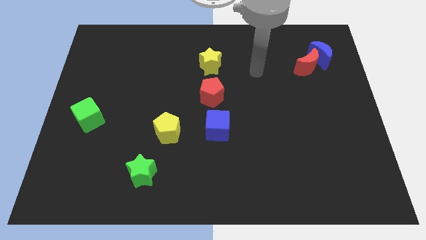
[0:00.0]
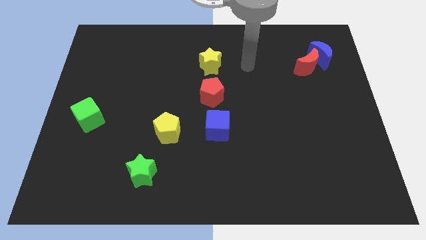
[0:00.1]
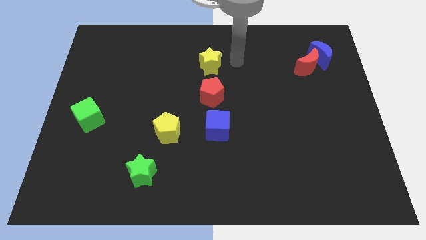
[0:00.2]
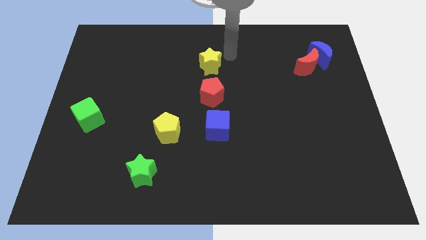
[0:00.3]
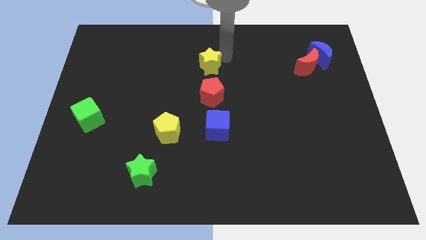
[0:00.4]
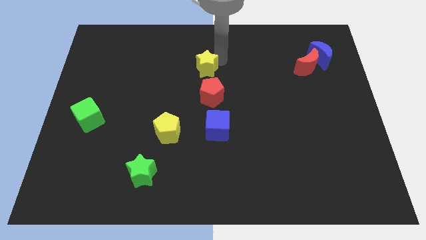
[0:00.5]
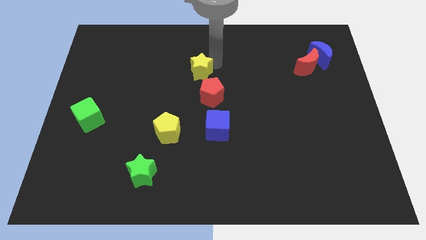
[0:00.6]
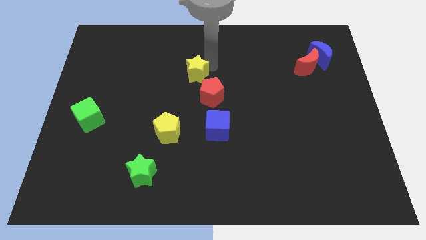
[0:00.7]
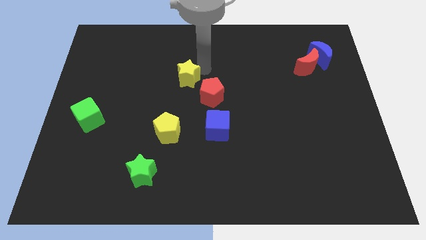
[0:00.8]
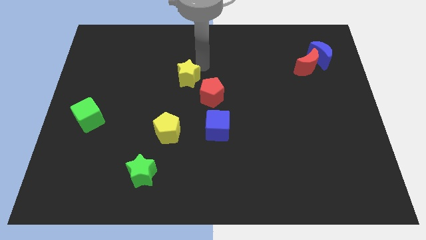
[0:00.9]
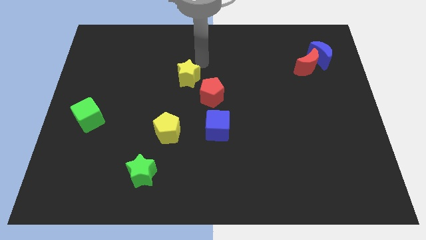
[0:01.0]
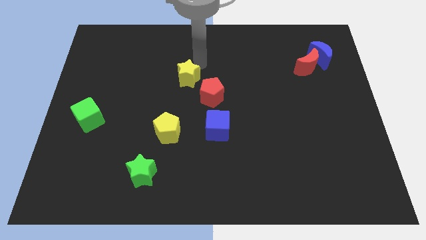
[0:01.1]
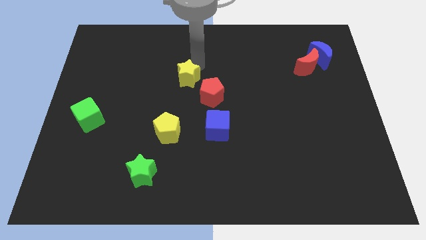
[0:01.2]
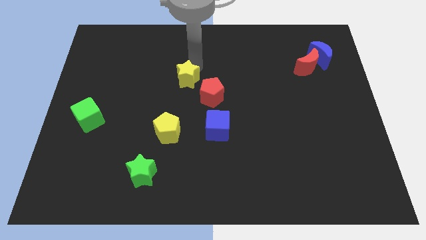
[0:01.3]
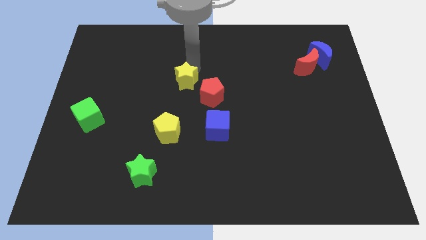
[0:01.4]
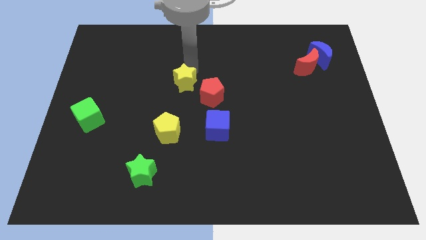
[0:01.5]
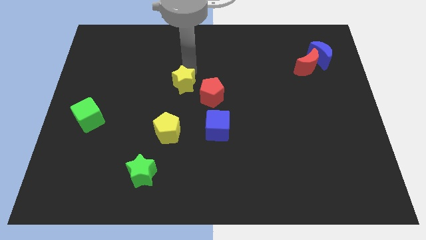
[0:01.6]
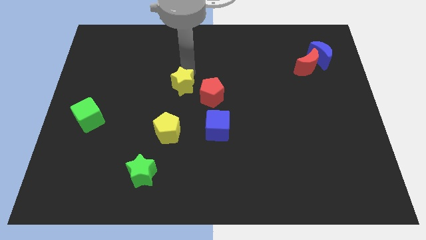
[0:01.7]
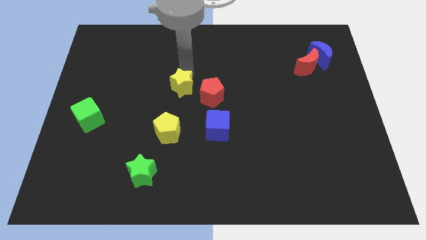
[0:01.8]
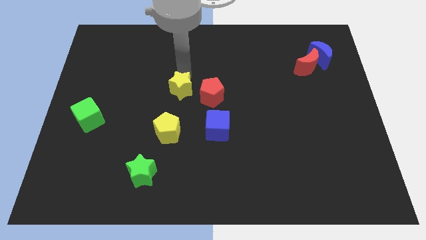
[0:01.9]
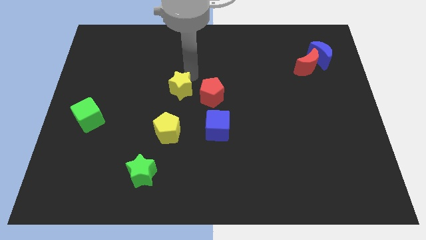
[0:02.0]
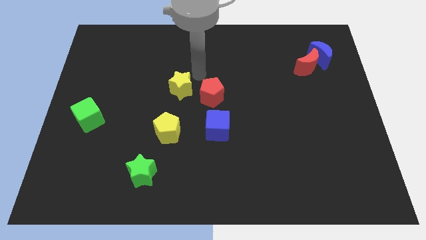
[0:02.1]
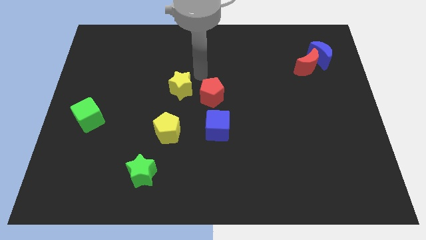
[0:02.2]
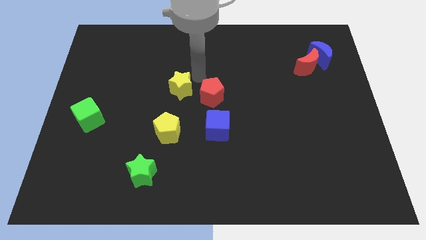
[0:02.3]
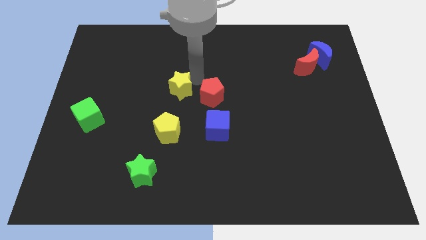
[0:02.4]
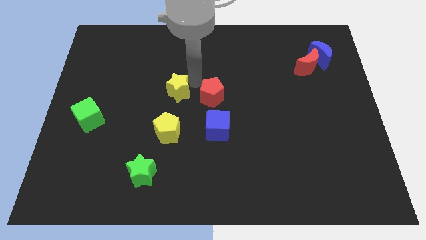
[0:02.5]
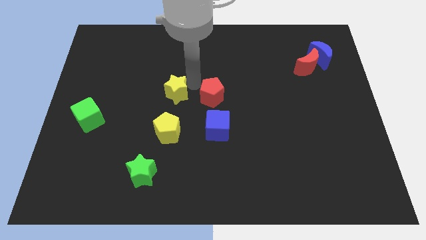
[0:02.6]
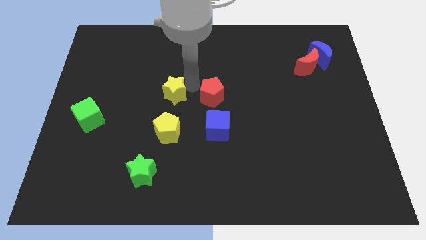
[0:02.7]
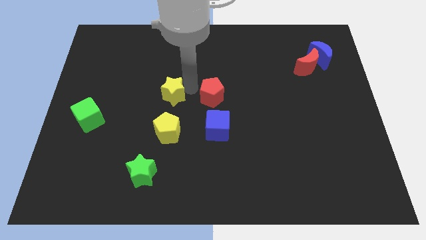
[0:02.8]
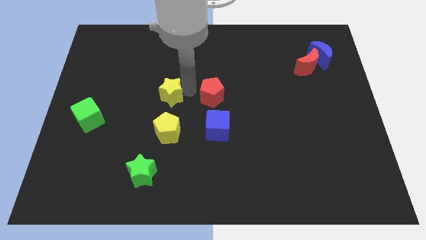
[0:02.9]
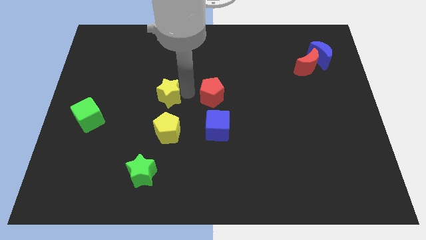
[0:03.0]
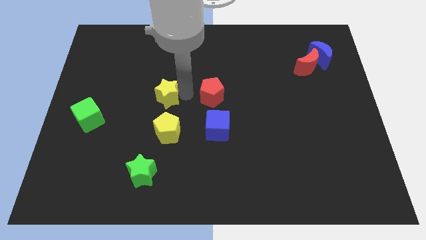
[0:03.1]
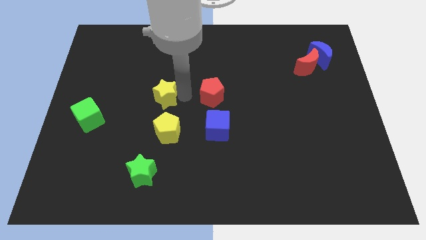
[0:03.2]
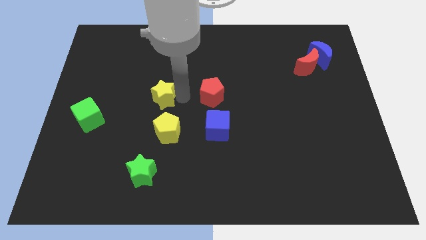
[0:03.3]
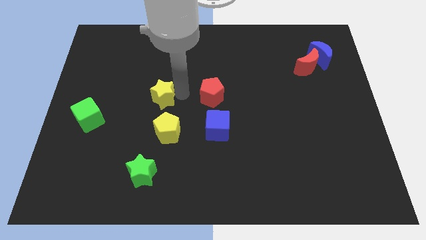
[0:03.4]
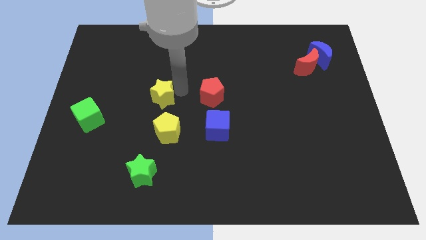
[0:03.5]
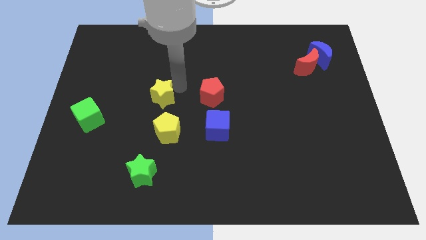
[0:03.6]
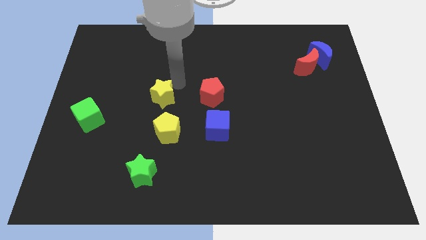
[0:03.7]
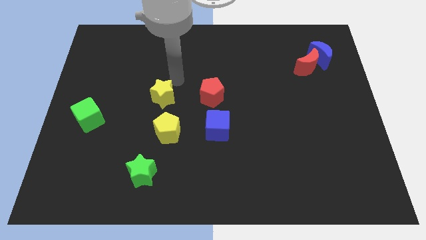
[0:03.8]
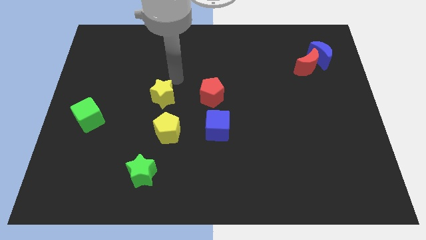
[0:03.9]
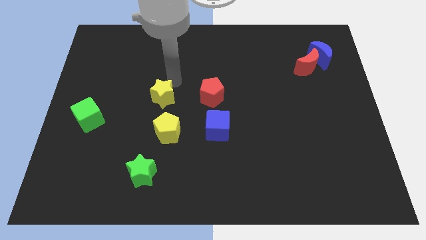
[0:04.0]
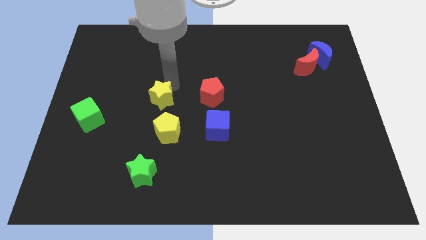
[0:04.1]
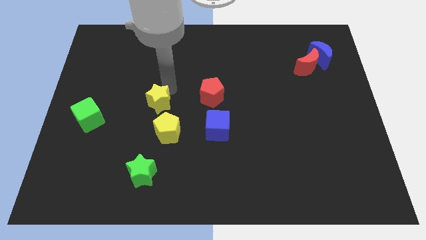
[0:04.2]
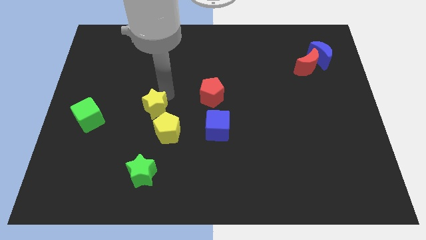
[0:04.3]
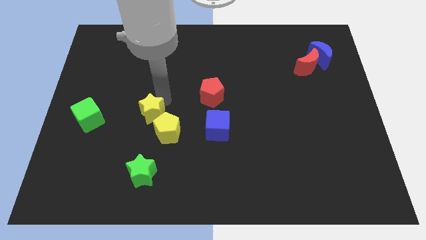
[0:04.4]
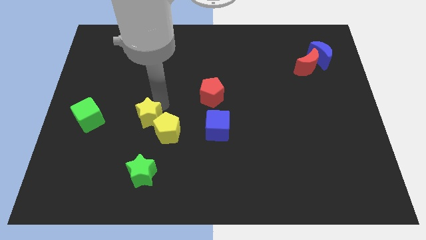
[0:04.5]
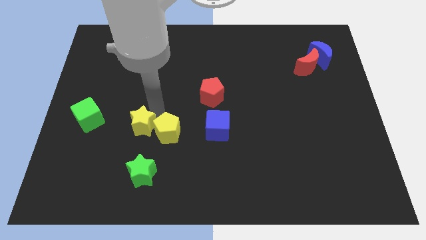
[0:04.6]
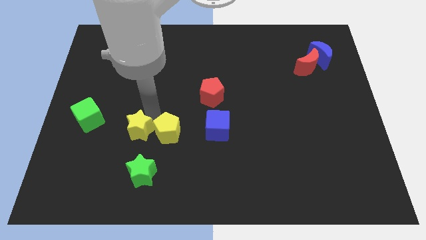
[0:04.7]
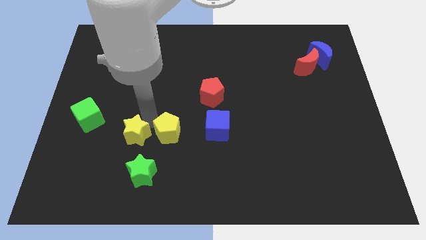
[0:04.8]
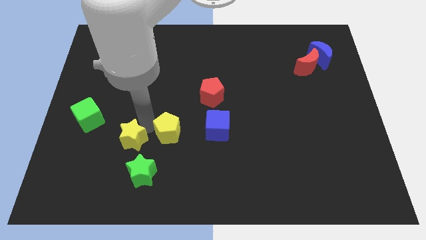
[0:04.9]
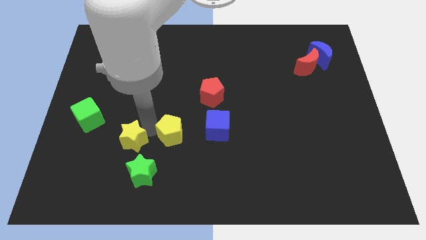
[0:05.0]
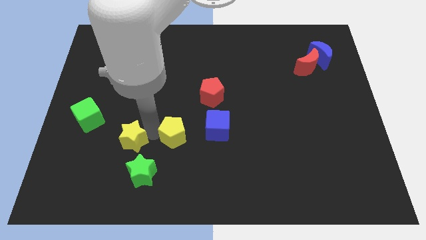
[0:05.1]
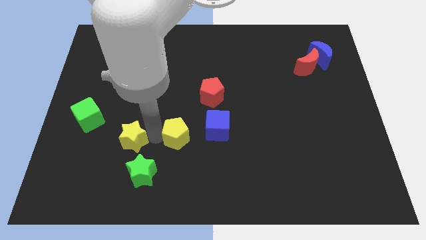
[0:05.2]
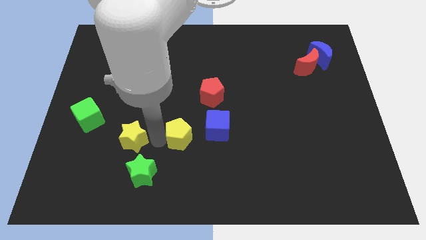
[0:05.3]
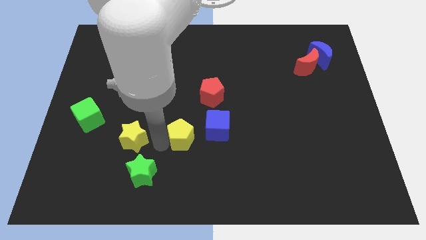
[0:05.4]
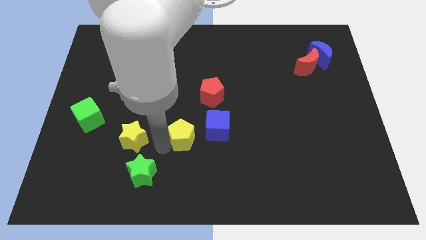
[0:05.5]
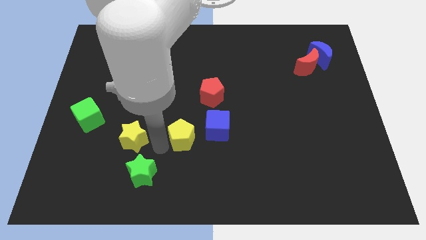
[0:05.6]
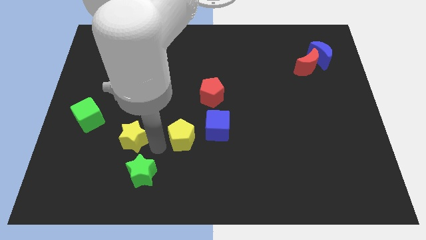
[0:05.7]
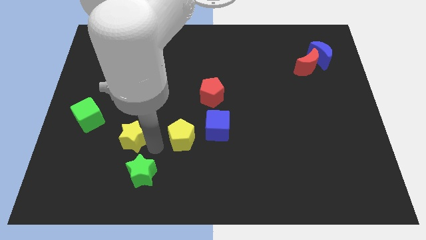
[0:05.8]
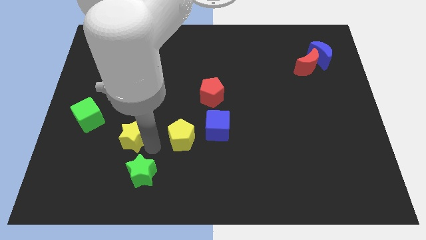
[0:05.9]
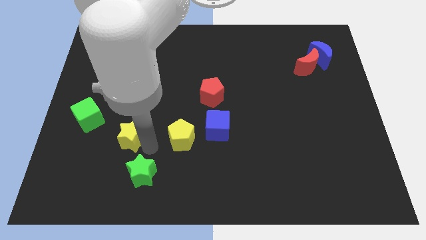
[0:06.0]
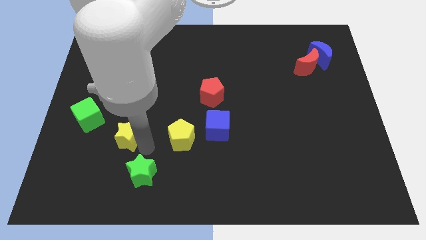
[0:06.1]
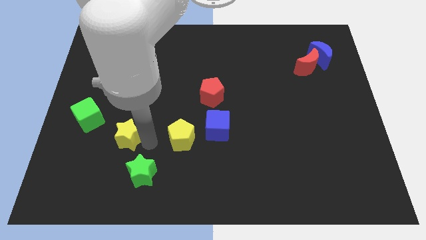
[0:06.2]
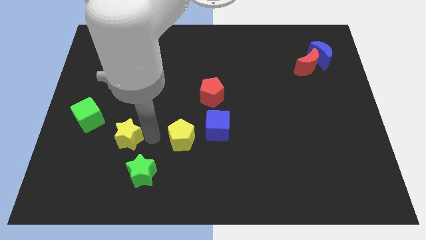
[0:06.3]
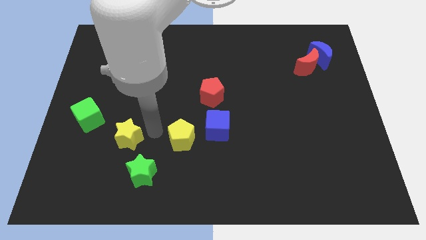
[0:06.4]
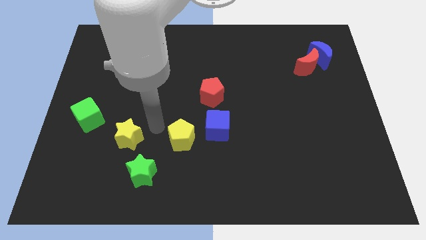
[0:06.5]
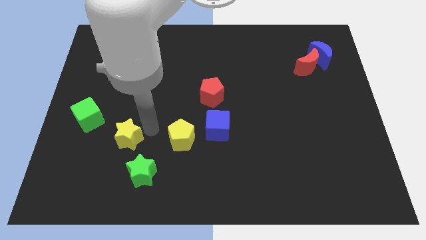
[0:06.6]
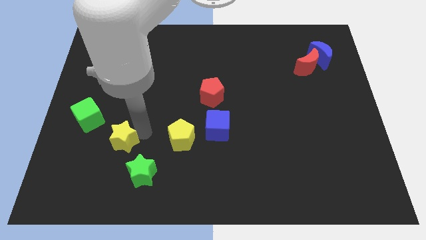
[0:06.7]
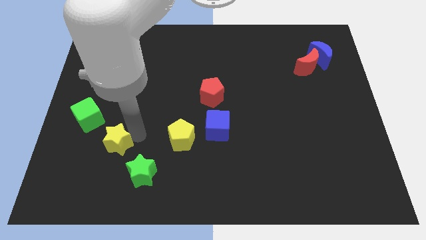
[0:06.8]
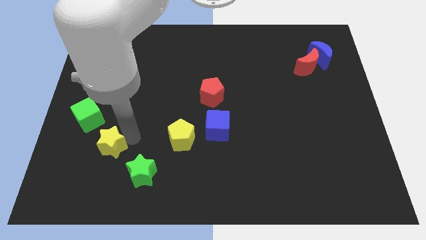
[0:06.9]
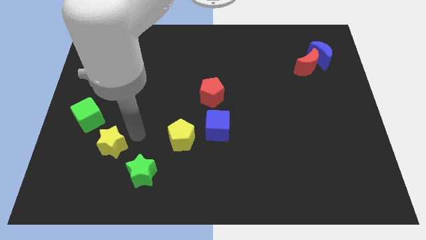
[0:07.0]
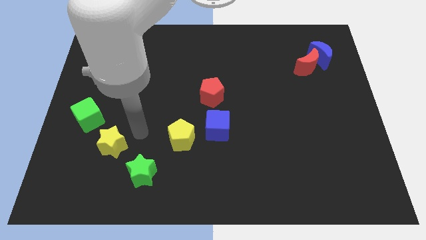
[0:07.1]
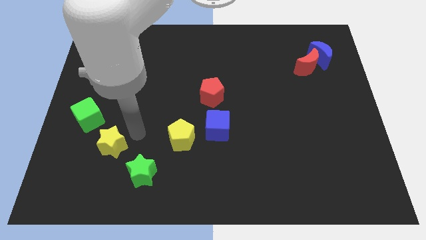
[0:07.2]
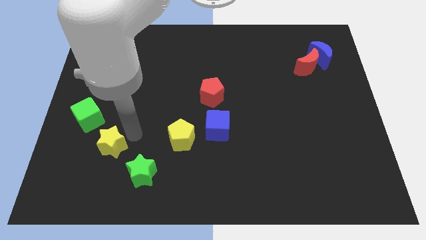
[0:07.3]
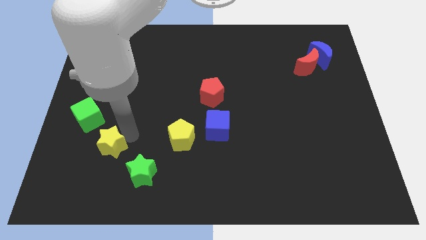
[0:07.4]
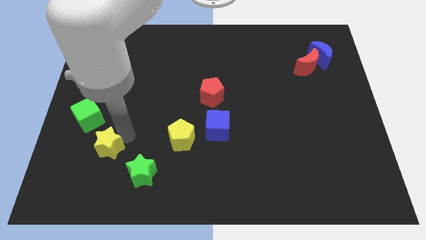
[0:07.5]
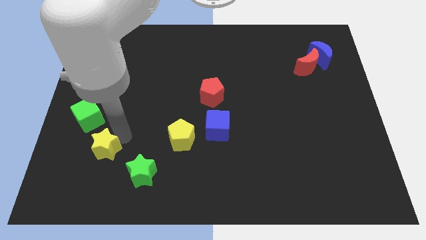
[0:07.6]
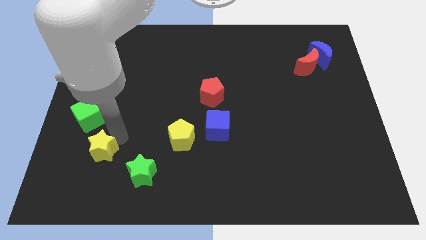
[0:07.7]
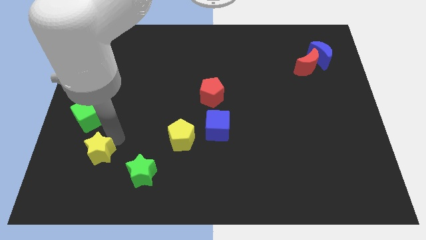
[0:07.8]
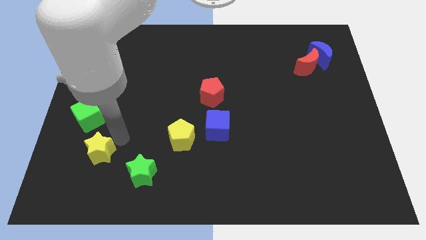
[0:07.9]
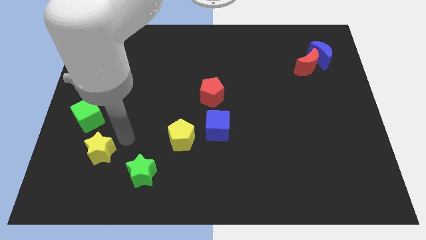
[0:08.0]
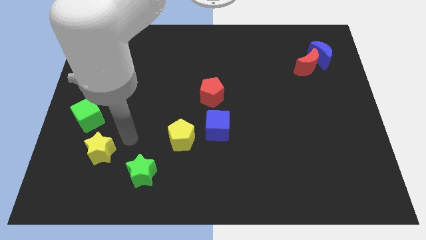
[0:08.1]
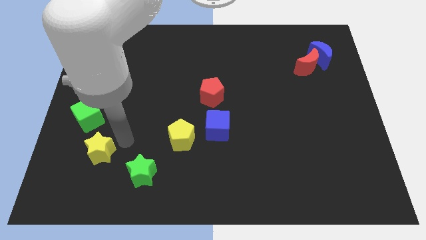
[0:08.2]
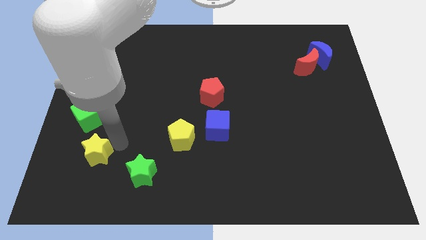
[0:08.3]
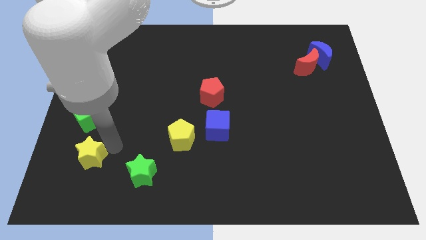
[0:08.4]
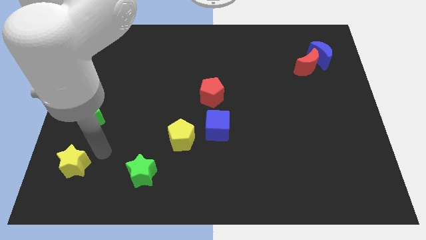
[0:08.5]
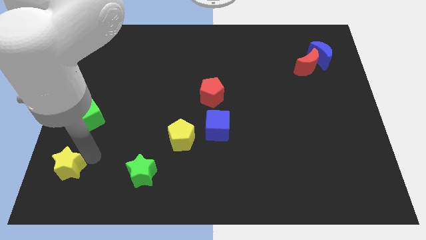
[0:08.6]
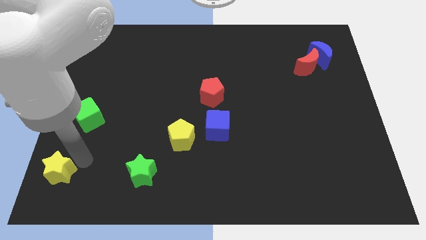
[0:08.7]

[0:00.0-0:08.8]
move the yellow star to the bottom left
